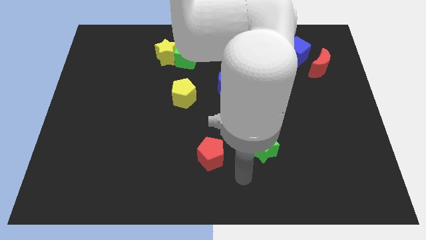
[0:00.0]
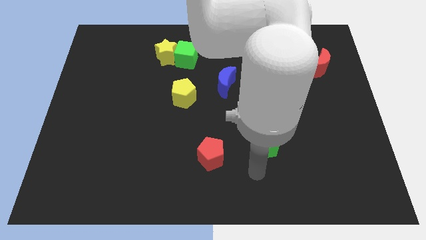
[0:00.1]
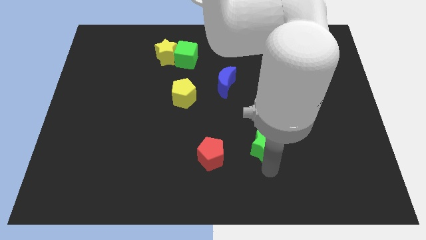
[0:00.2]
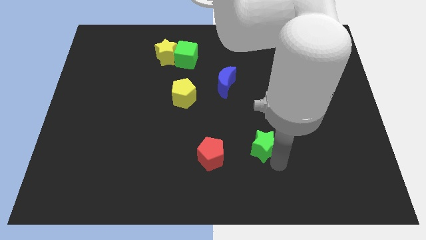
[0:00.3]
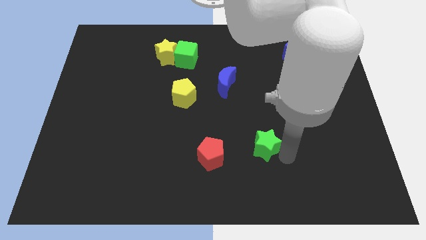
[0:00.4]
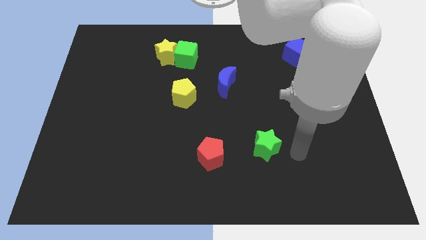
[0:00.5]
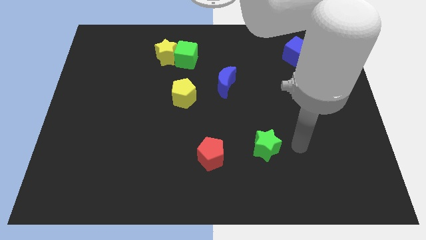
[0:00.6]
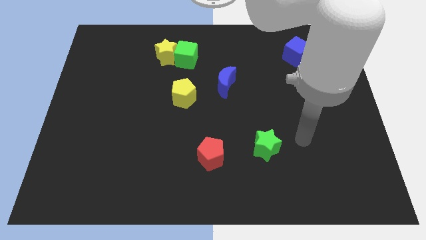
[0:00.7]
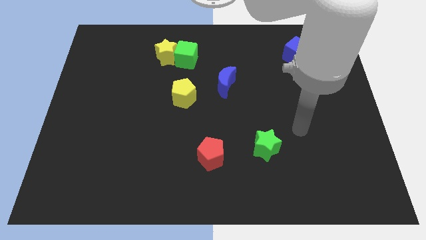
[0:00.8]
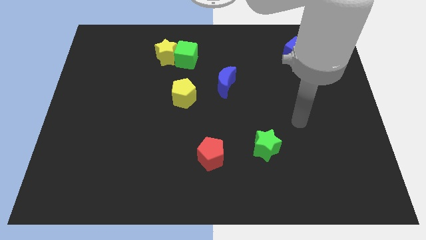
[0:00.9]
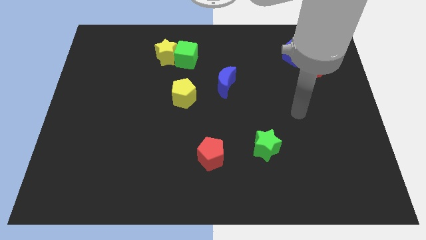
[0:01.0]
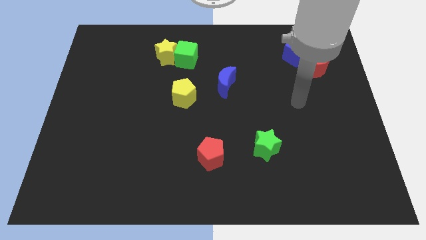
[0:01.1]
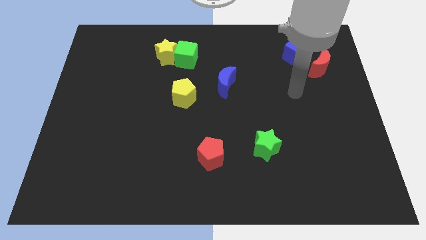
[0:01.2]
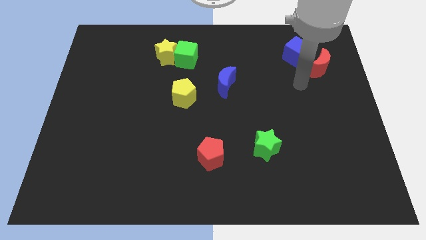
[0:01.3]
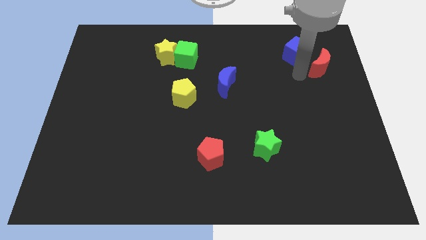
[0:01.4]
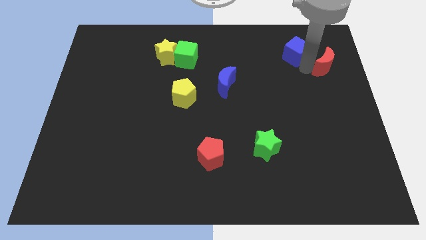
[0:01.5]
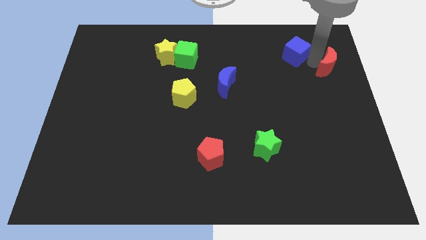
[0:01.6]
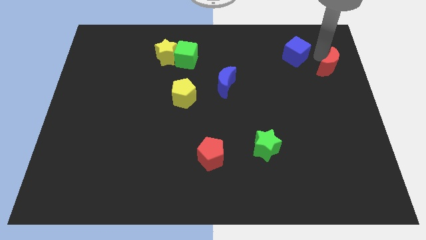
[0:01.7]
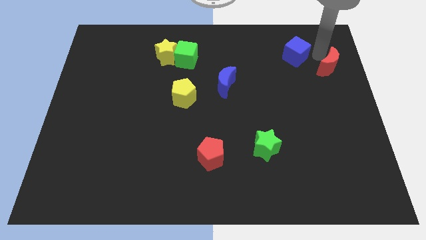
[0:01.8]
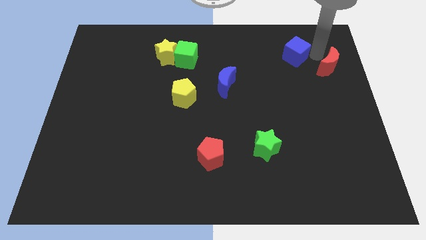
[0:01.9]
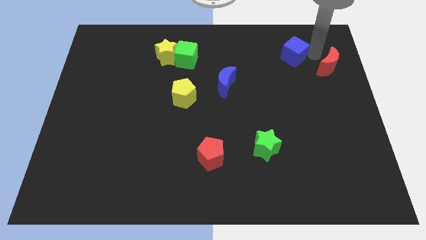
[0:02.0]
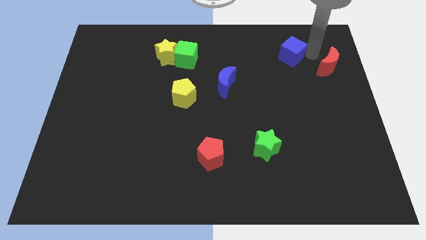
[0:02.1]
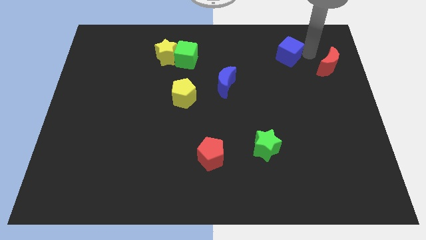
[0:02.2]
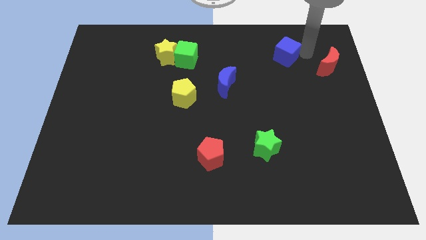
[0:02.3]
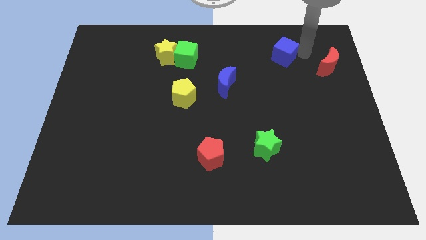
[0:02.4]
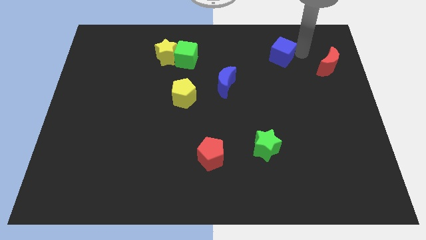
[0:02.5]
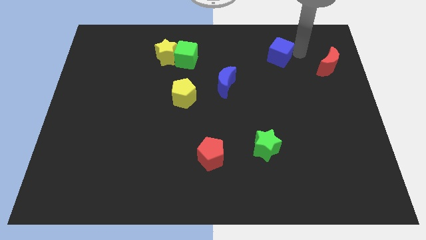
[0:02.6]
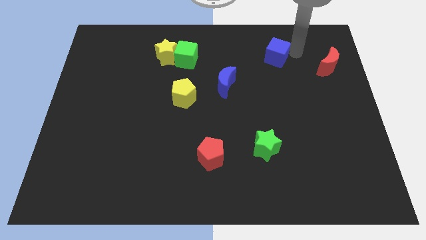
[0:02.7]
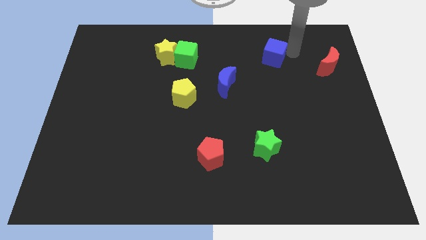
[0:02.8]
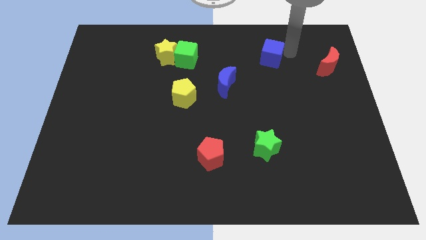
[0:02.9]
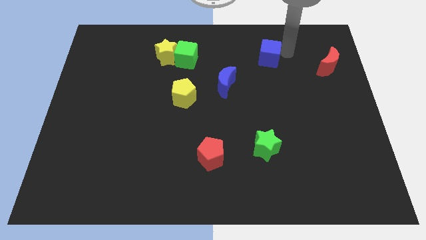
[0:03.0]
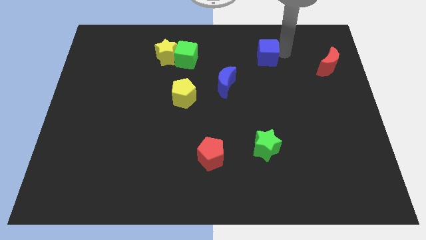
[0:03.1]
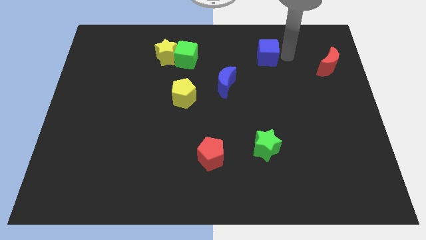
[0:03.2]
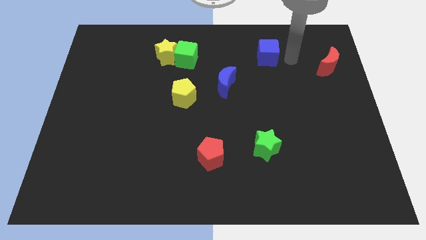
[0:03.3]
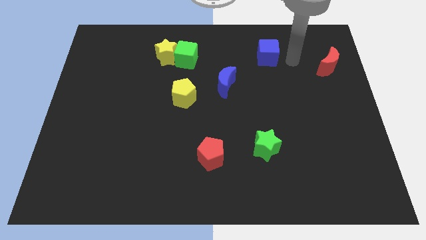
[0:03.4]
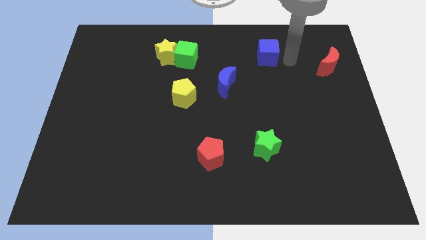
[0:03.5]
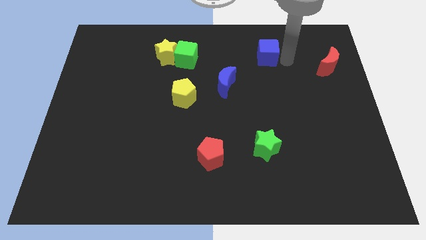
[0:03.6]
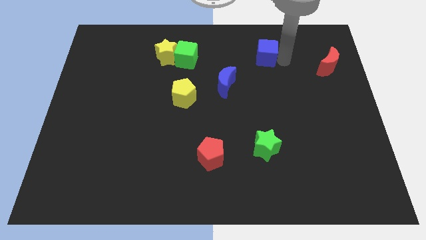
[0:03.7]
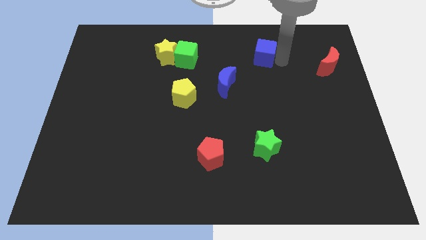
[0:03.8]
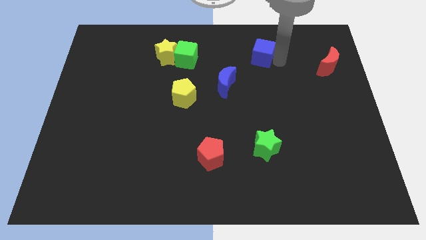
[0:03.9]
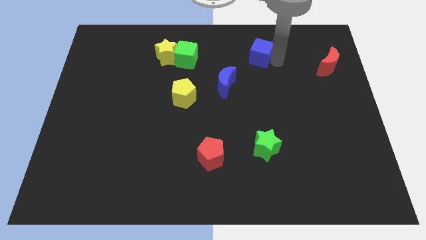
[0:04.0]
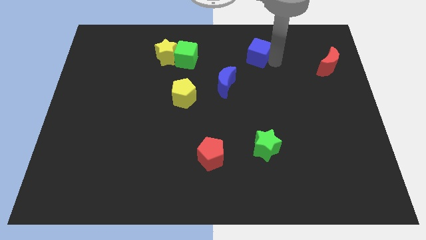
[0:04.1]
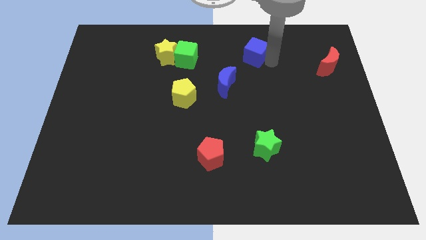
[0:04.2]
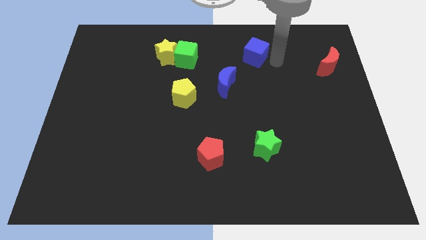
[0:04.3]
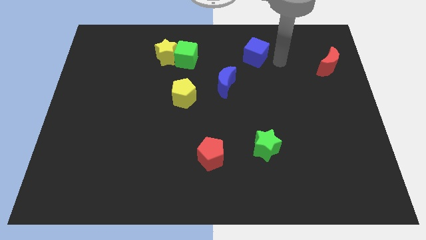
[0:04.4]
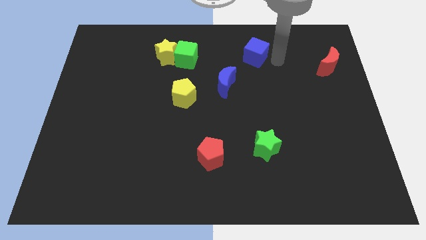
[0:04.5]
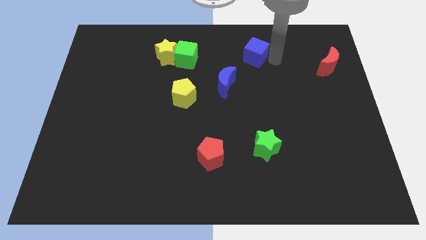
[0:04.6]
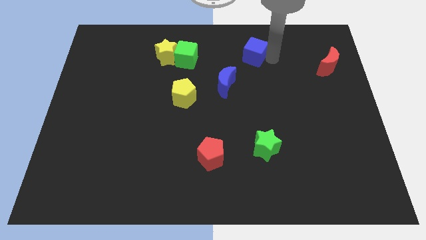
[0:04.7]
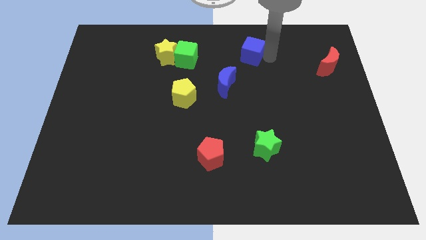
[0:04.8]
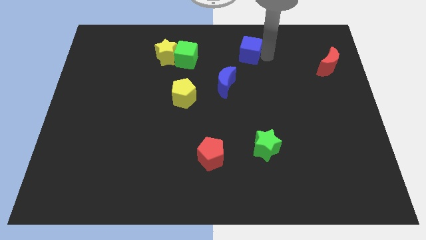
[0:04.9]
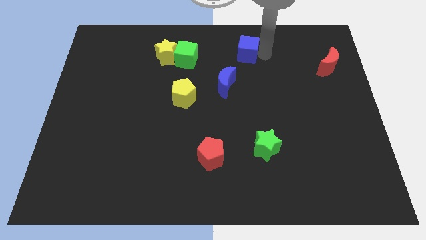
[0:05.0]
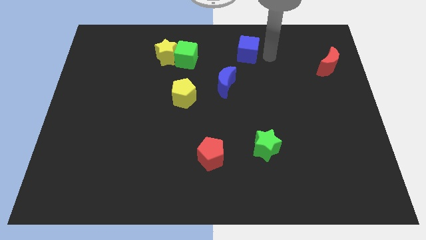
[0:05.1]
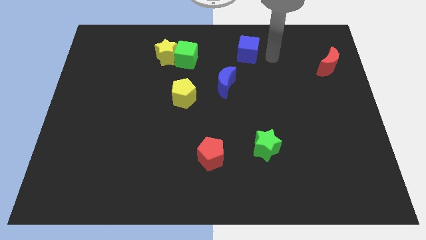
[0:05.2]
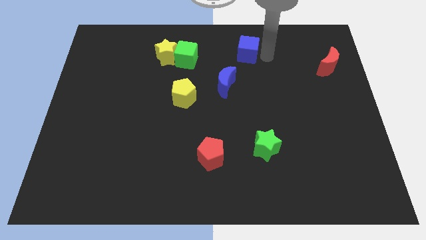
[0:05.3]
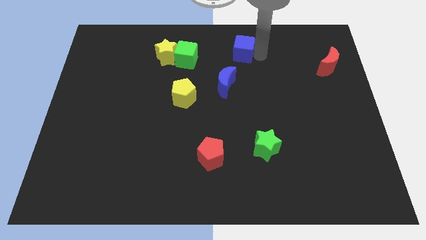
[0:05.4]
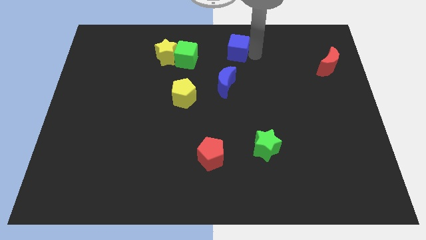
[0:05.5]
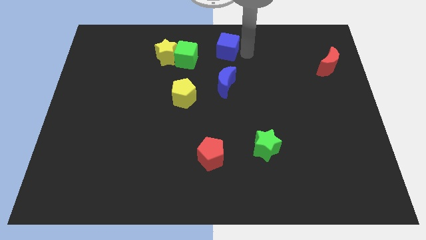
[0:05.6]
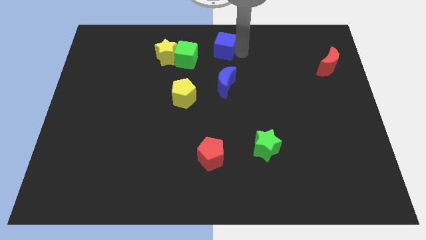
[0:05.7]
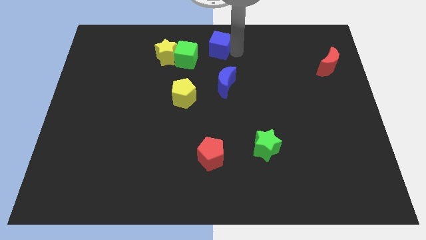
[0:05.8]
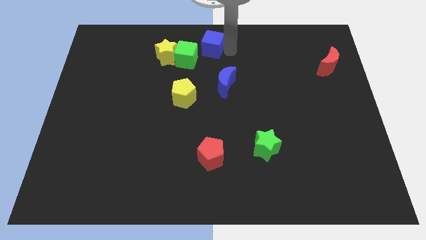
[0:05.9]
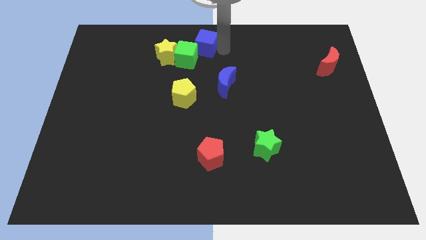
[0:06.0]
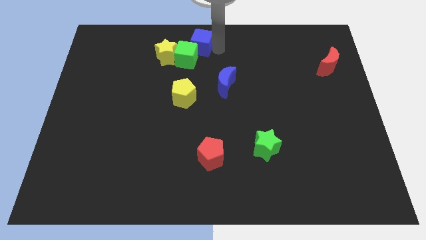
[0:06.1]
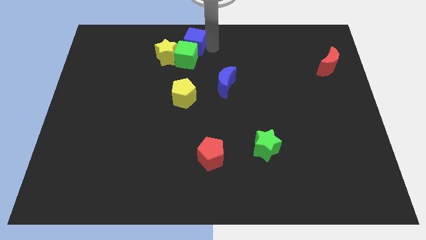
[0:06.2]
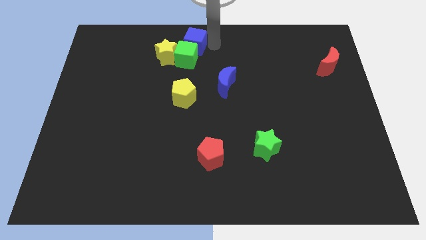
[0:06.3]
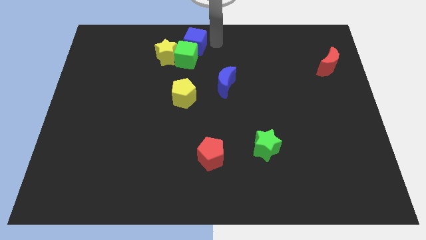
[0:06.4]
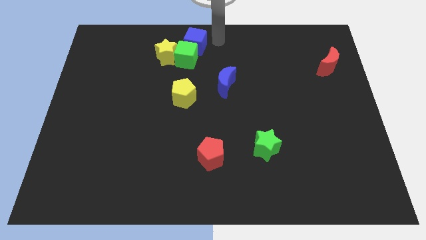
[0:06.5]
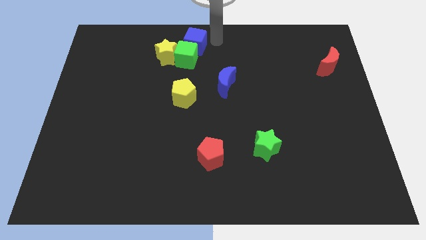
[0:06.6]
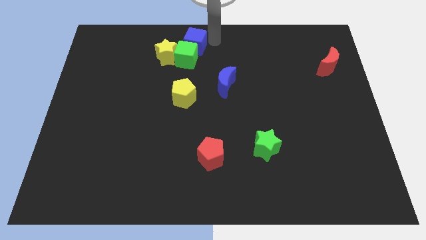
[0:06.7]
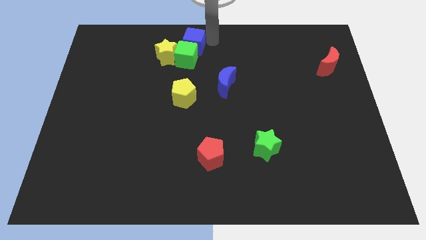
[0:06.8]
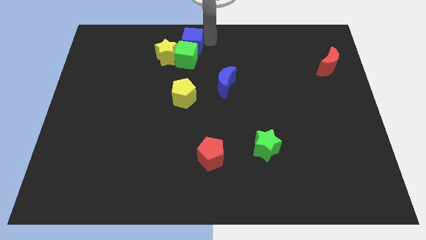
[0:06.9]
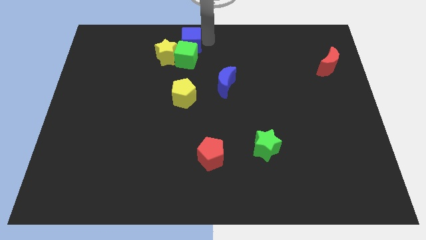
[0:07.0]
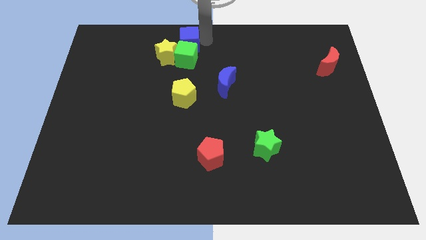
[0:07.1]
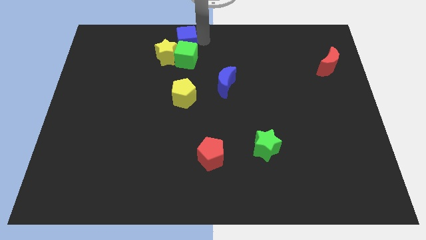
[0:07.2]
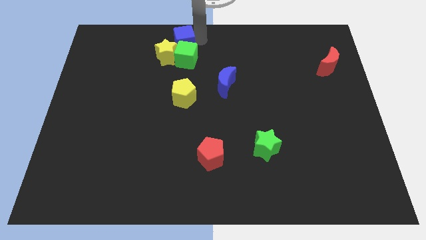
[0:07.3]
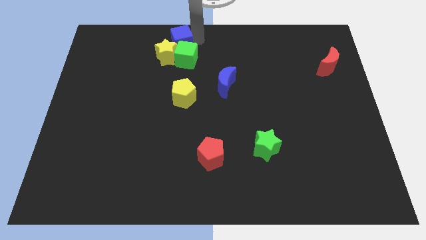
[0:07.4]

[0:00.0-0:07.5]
slide the blue cube towards the yellow star
